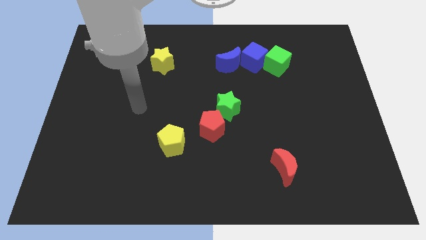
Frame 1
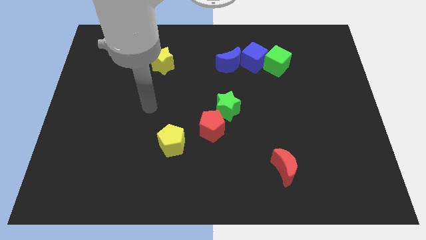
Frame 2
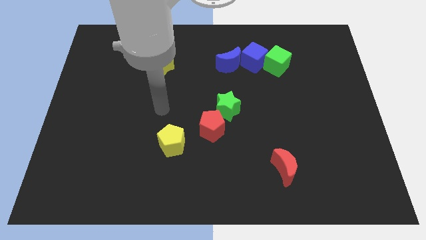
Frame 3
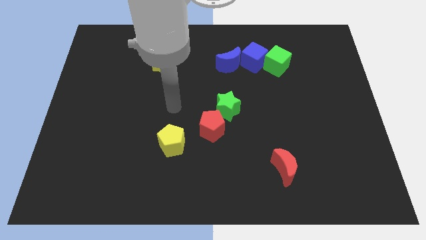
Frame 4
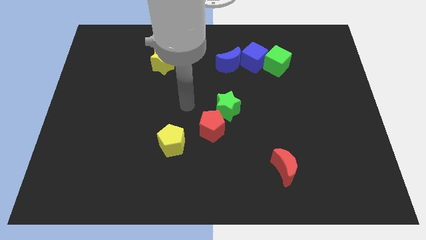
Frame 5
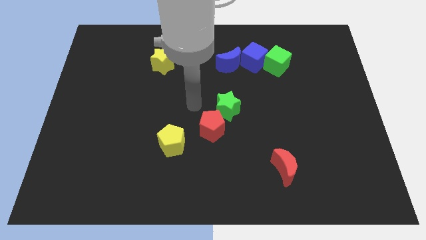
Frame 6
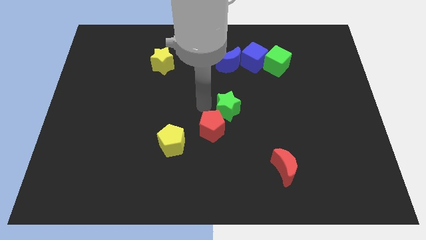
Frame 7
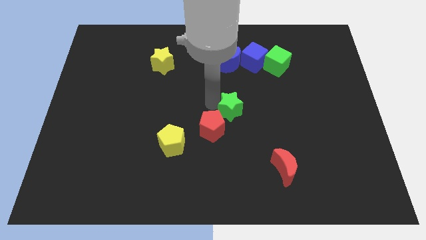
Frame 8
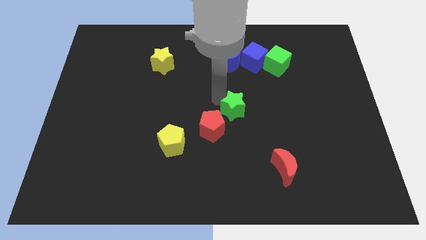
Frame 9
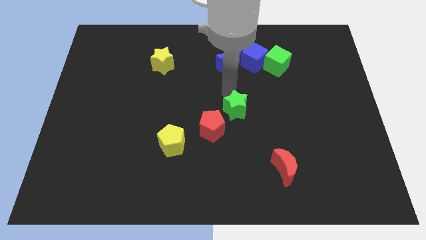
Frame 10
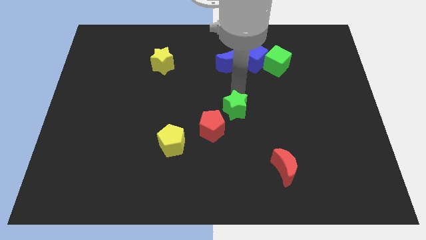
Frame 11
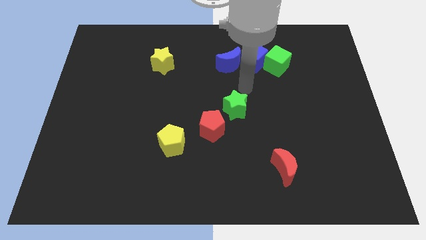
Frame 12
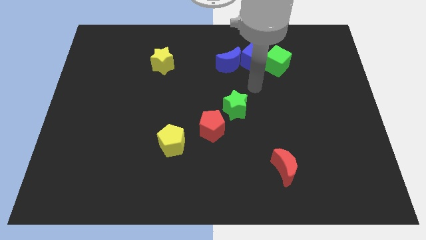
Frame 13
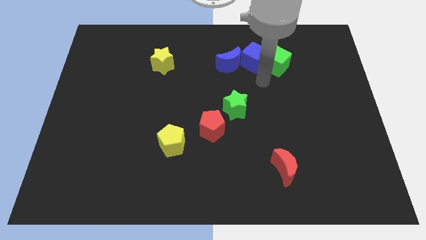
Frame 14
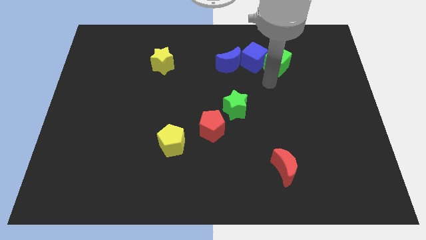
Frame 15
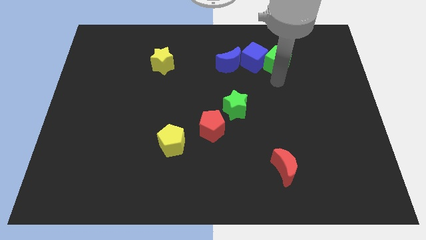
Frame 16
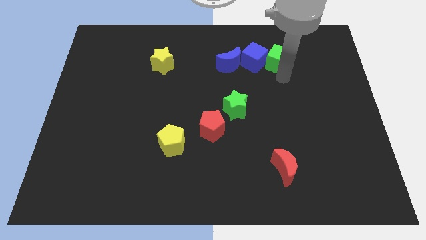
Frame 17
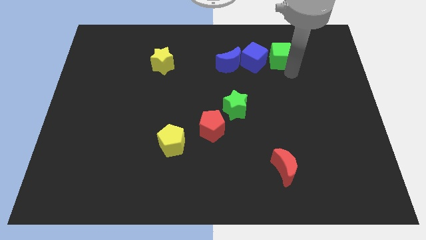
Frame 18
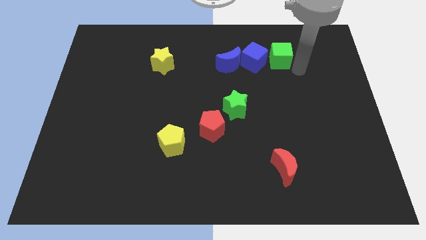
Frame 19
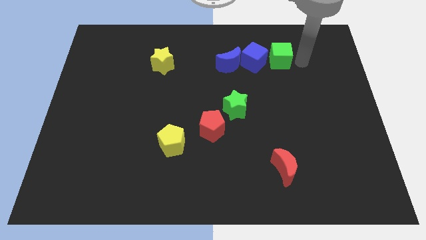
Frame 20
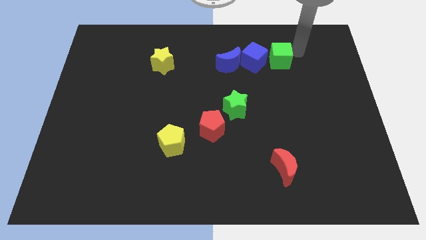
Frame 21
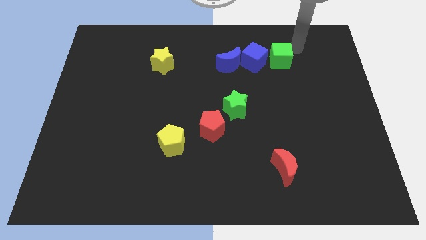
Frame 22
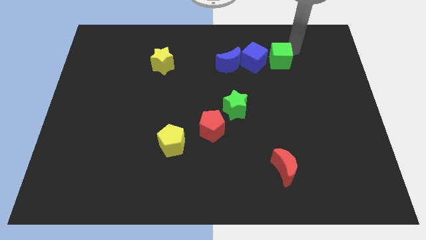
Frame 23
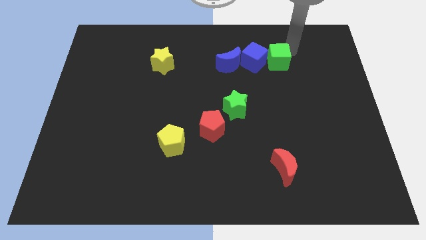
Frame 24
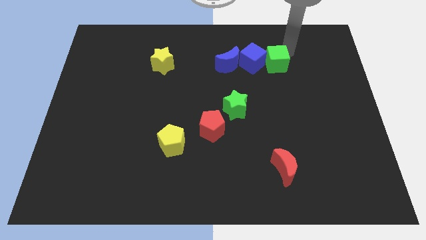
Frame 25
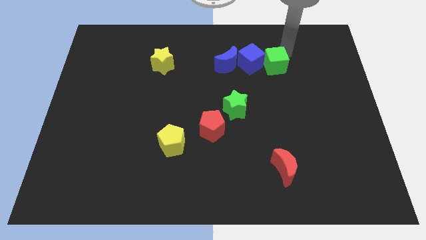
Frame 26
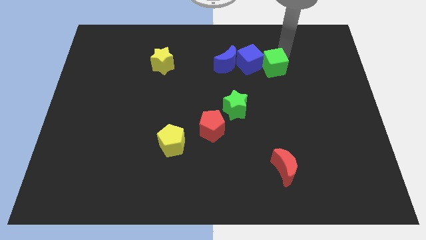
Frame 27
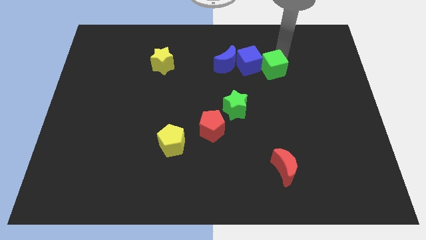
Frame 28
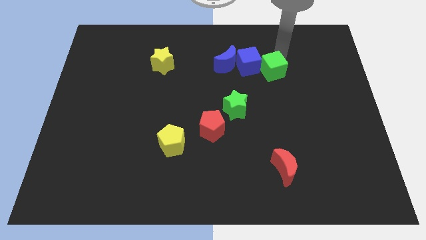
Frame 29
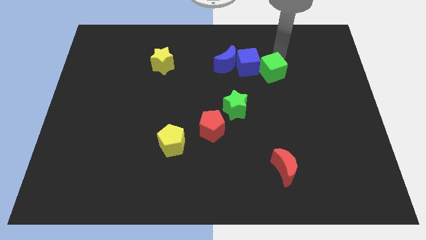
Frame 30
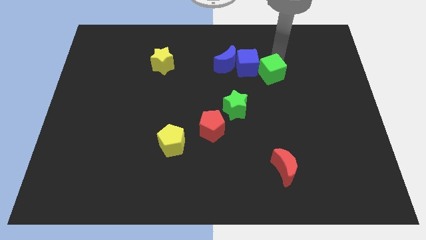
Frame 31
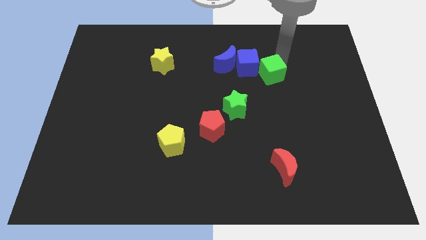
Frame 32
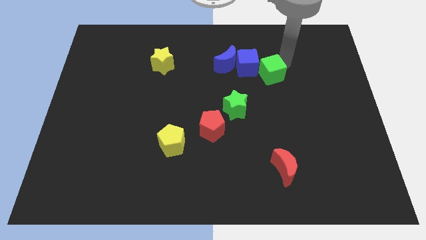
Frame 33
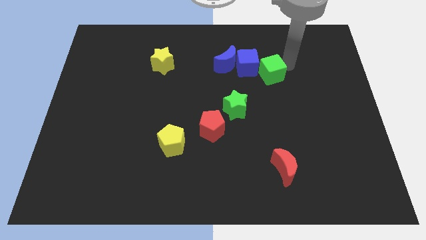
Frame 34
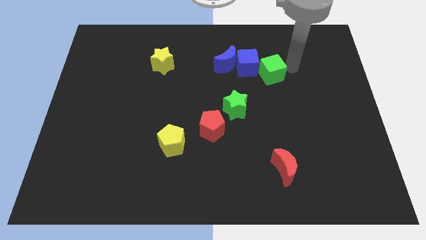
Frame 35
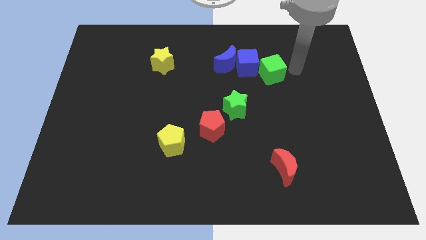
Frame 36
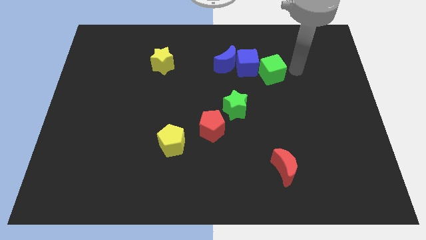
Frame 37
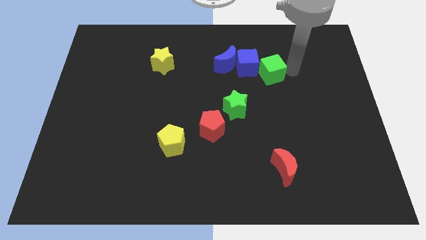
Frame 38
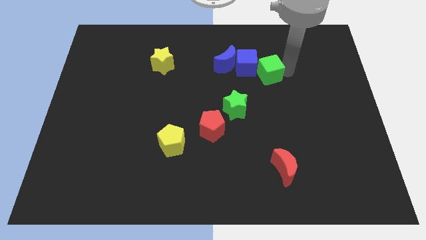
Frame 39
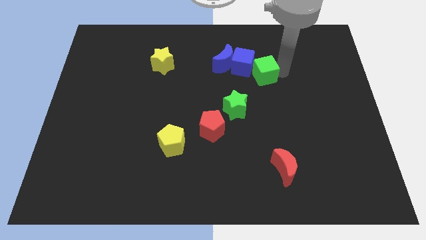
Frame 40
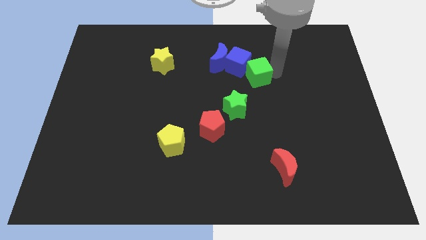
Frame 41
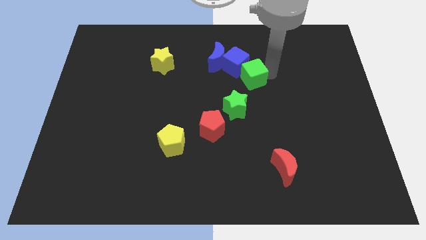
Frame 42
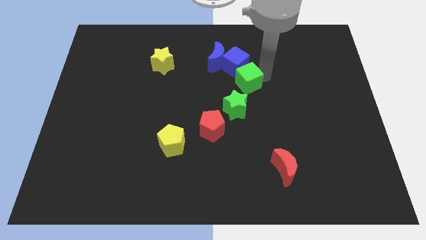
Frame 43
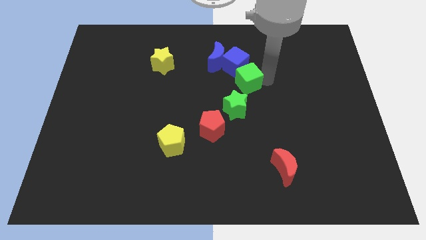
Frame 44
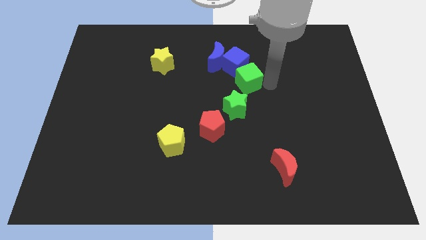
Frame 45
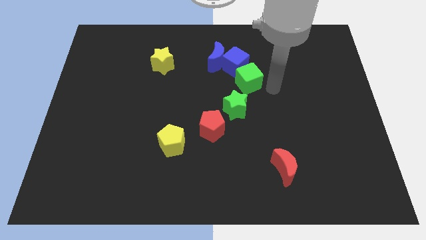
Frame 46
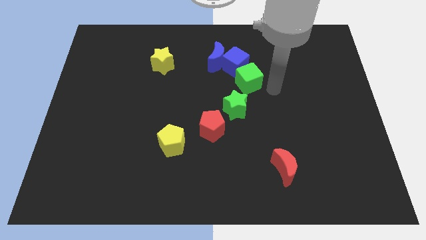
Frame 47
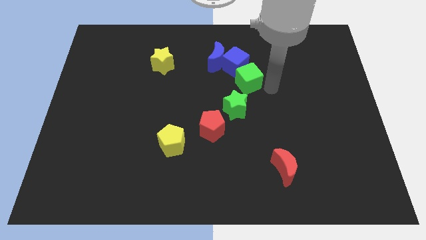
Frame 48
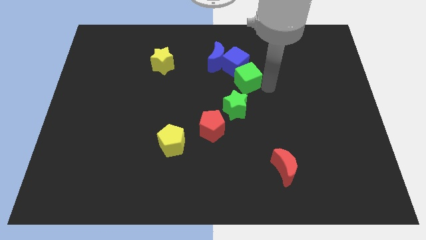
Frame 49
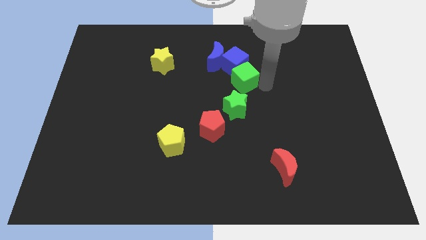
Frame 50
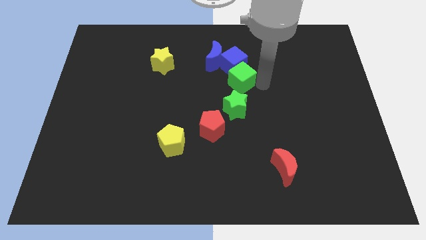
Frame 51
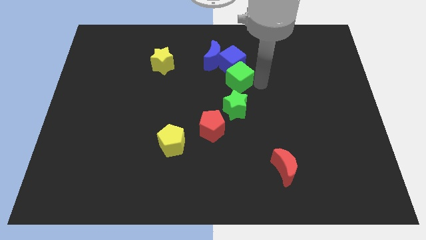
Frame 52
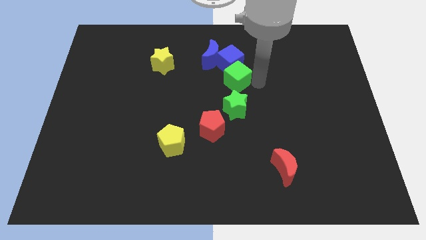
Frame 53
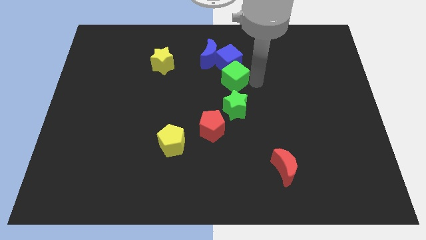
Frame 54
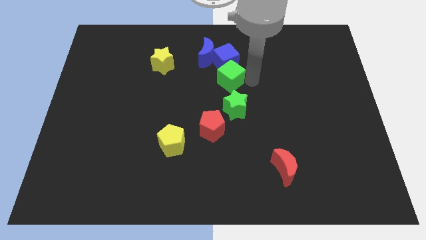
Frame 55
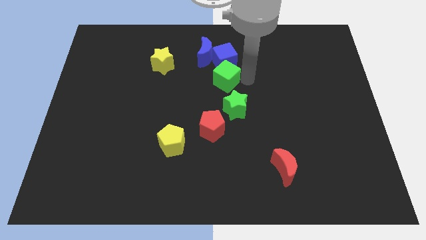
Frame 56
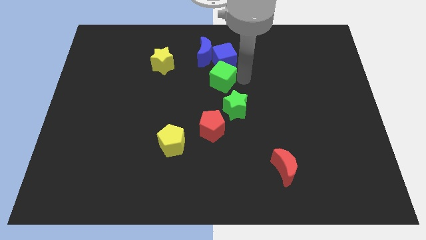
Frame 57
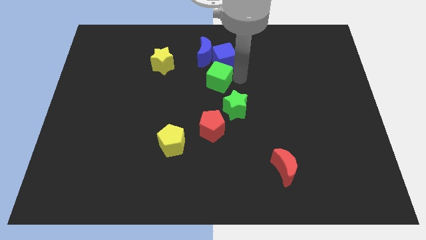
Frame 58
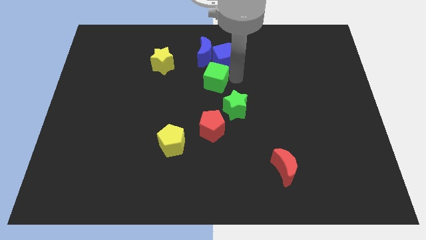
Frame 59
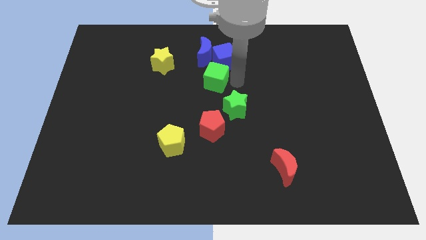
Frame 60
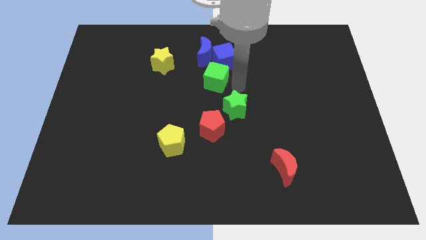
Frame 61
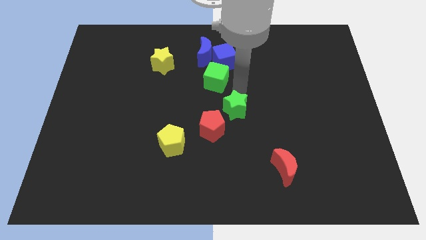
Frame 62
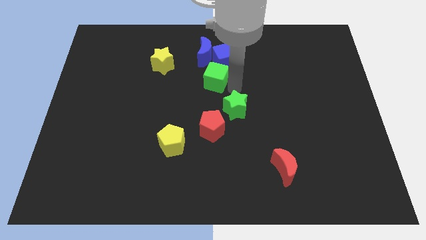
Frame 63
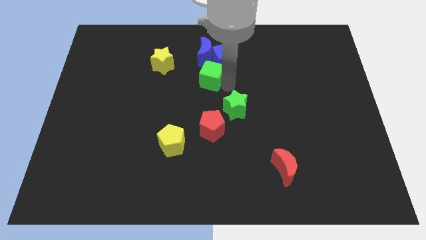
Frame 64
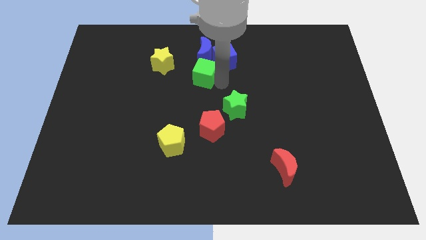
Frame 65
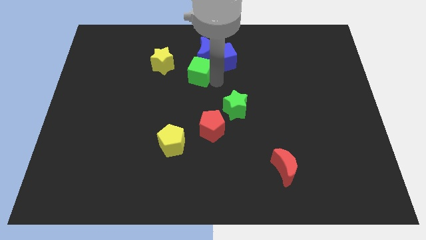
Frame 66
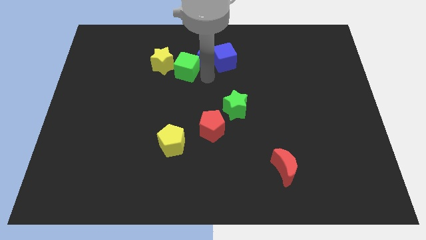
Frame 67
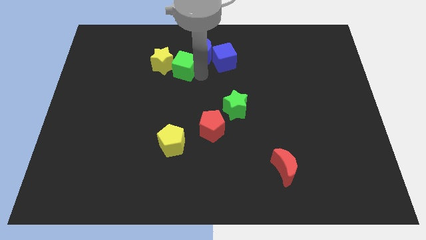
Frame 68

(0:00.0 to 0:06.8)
push the green cube close to the yellow star
